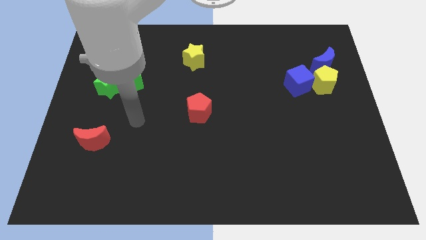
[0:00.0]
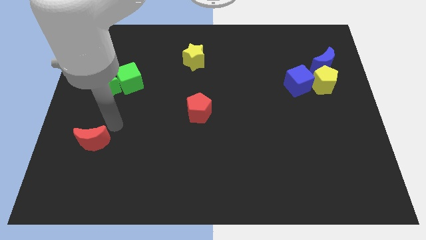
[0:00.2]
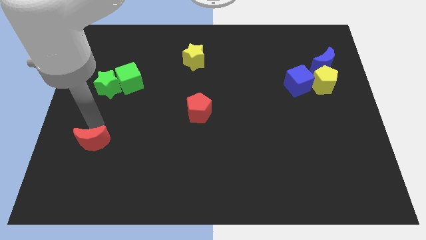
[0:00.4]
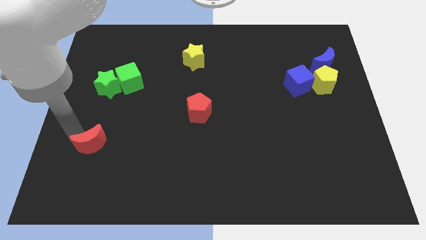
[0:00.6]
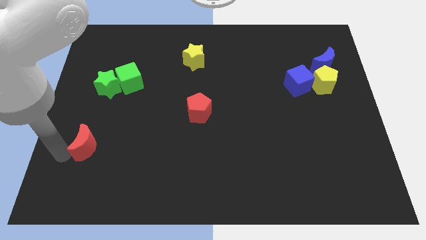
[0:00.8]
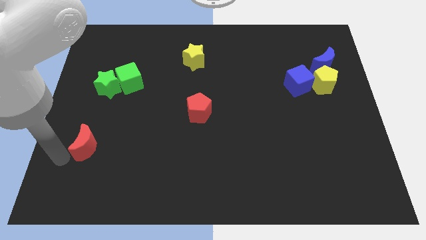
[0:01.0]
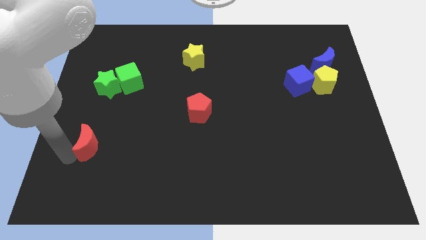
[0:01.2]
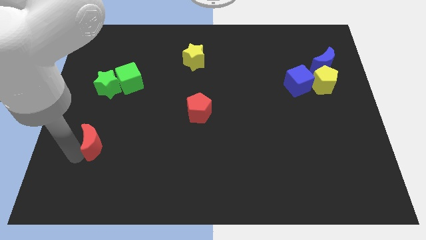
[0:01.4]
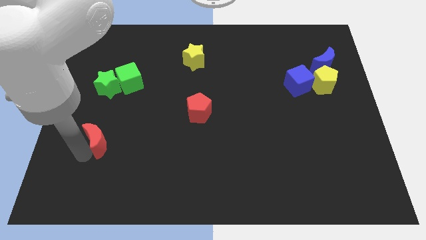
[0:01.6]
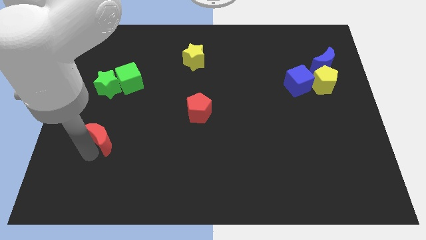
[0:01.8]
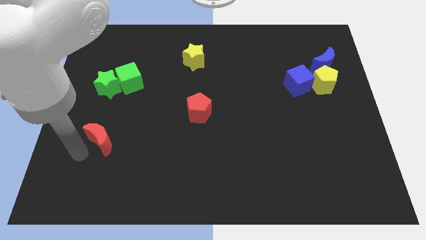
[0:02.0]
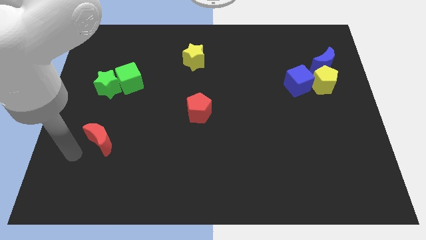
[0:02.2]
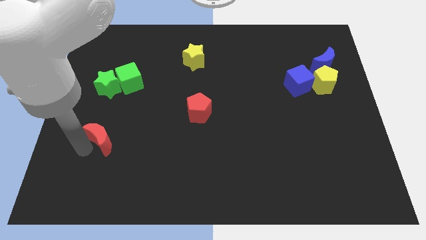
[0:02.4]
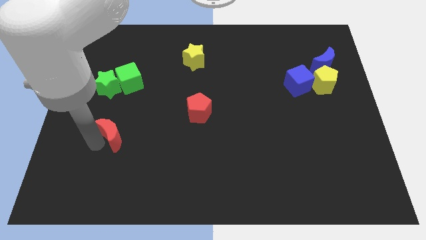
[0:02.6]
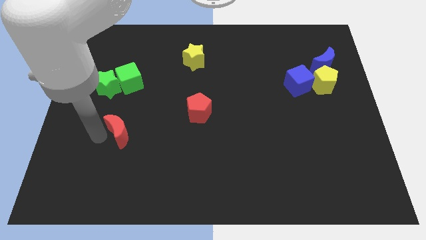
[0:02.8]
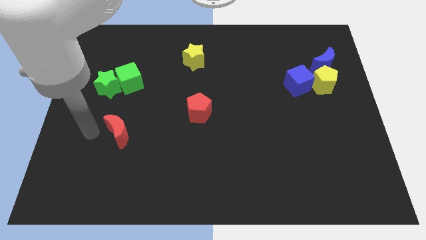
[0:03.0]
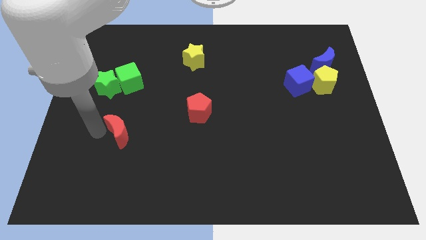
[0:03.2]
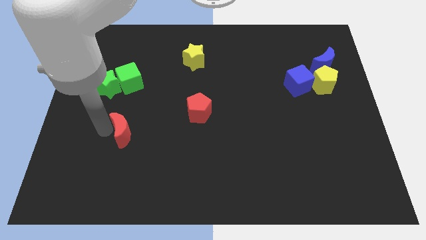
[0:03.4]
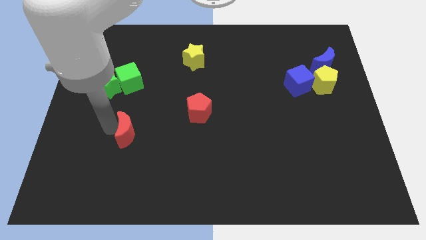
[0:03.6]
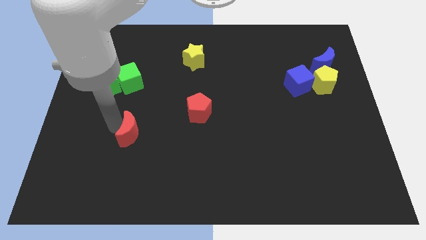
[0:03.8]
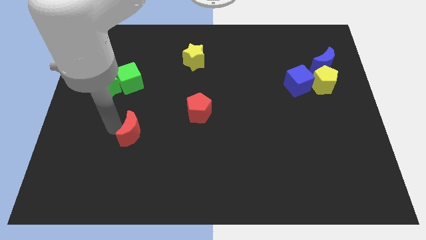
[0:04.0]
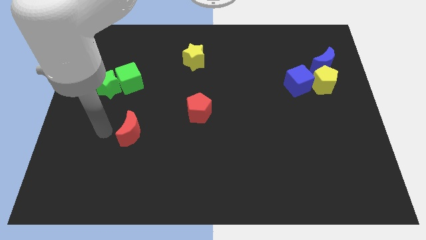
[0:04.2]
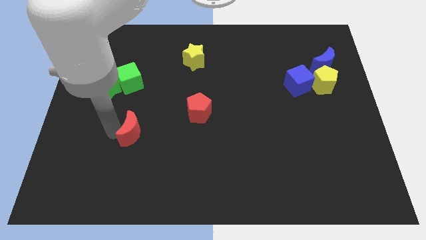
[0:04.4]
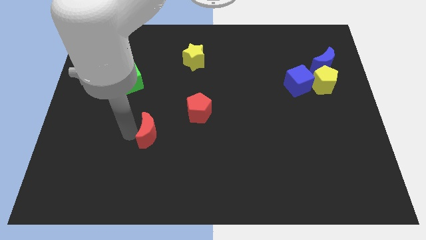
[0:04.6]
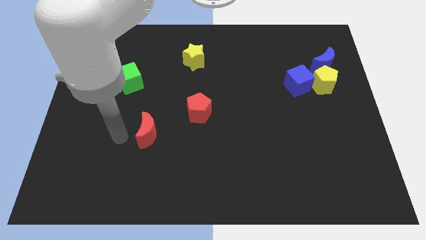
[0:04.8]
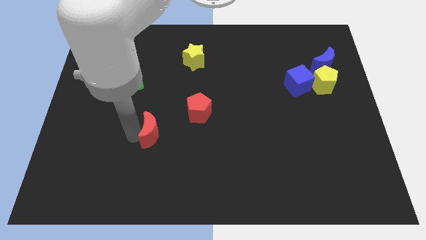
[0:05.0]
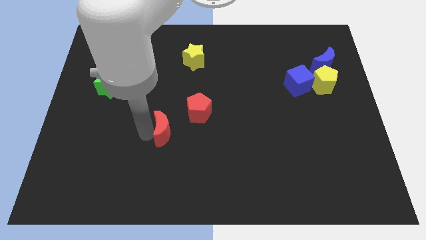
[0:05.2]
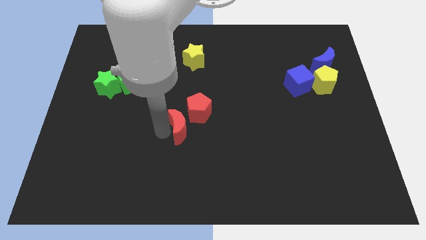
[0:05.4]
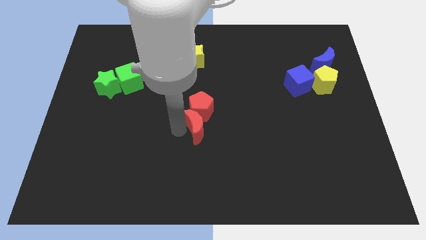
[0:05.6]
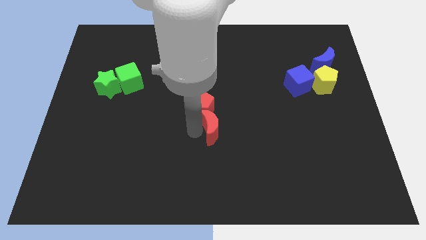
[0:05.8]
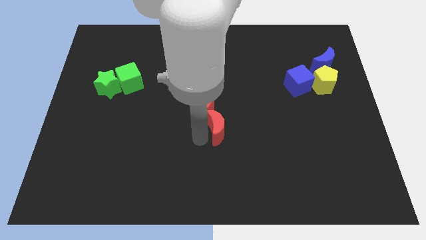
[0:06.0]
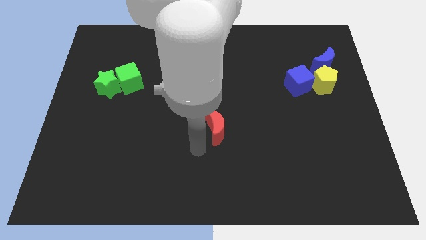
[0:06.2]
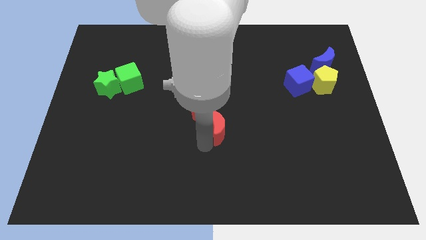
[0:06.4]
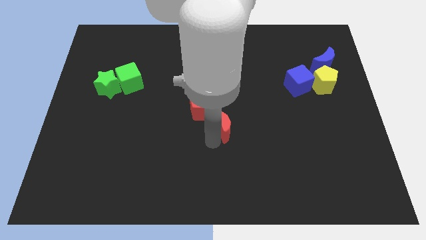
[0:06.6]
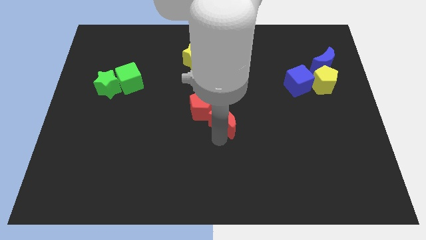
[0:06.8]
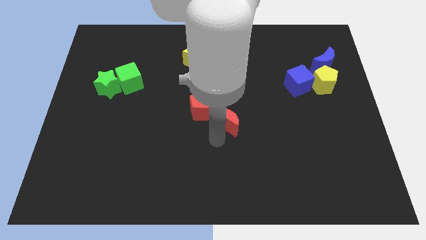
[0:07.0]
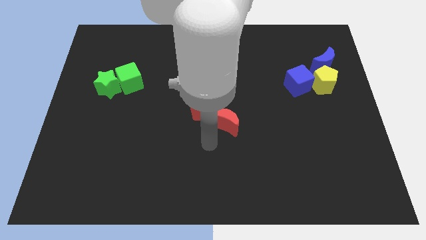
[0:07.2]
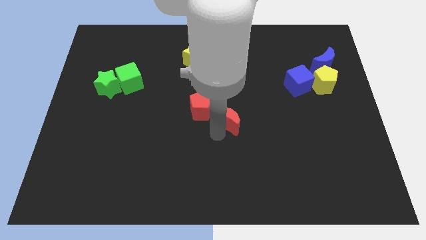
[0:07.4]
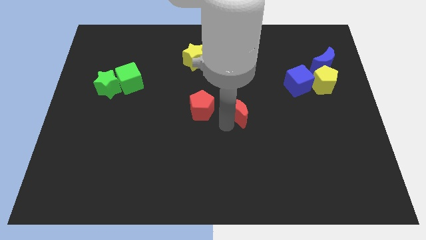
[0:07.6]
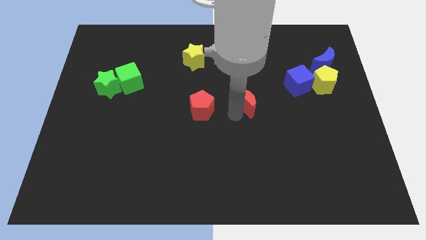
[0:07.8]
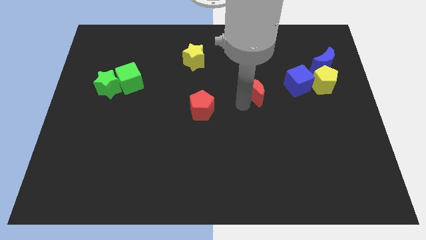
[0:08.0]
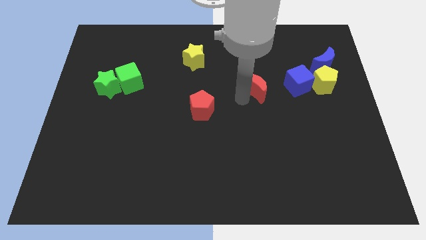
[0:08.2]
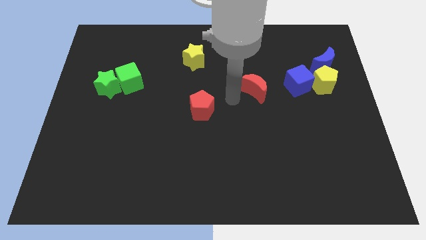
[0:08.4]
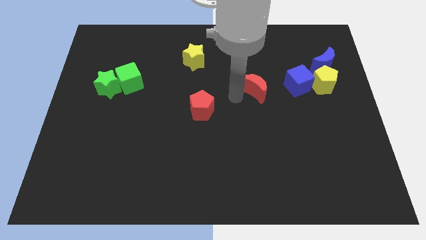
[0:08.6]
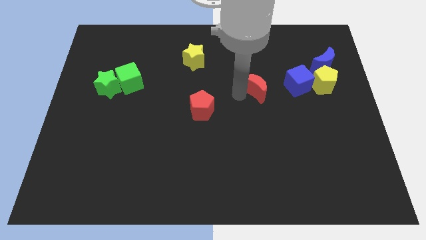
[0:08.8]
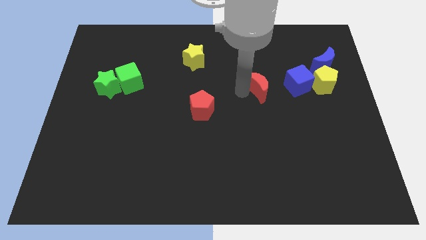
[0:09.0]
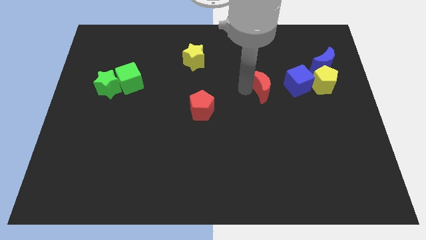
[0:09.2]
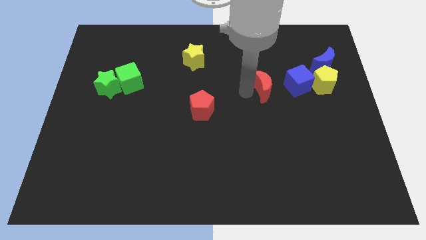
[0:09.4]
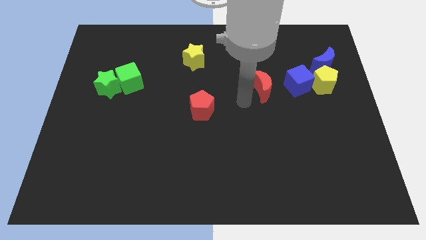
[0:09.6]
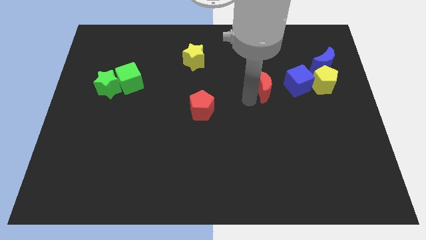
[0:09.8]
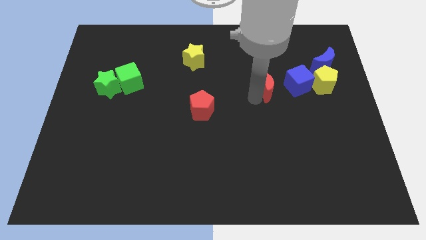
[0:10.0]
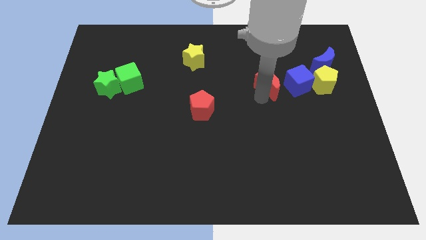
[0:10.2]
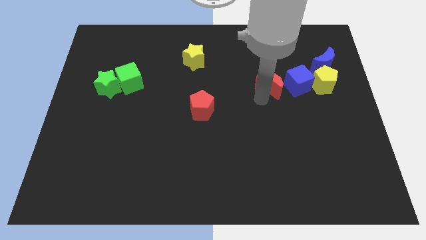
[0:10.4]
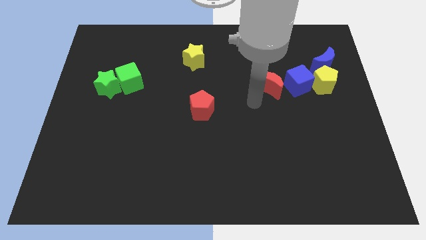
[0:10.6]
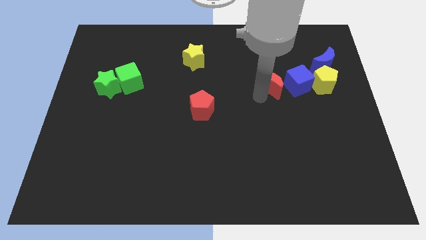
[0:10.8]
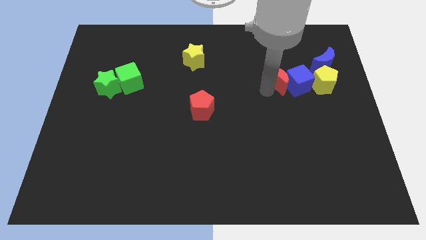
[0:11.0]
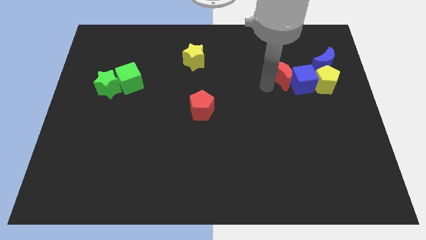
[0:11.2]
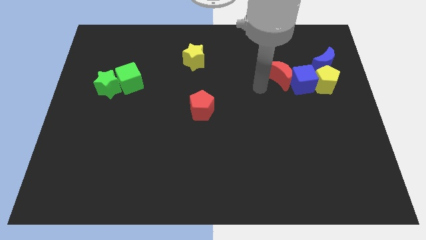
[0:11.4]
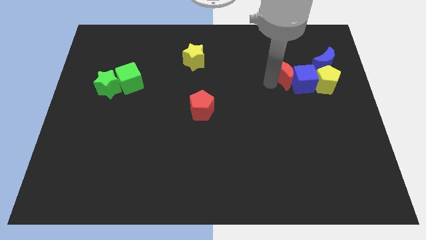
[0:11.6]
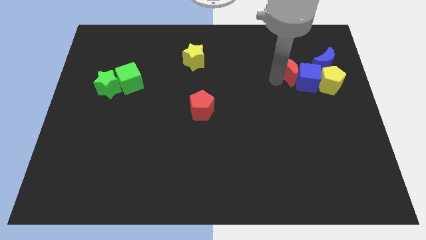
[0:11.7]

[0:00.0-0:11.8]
put the red moon diagonally up and to the left of the yellow pentagon

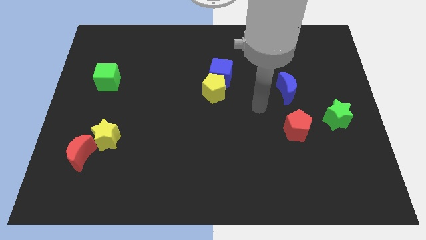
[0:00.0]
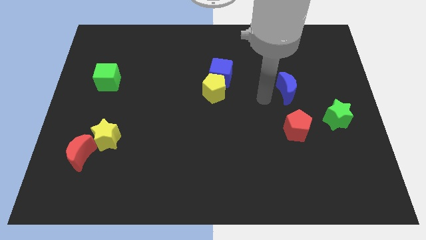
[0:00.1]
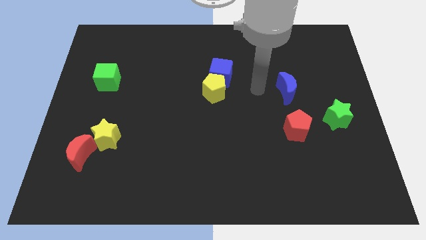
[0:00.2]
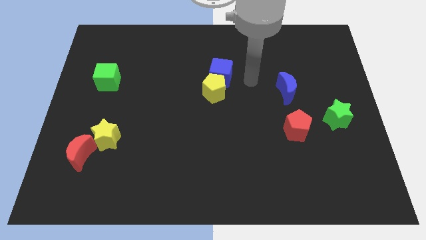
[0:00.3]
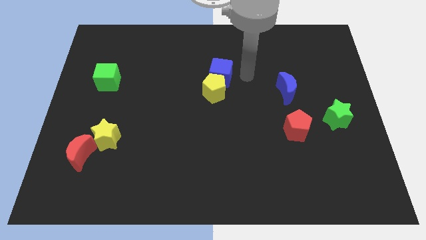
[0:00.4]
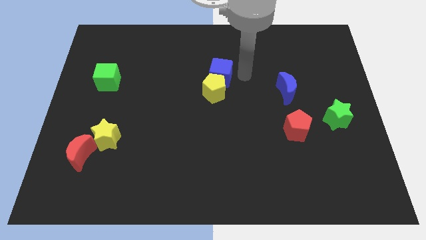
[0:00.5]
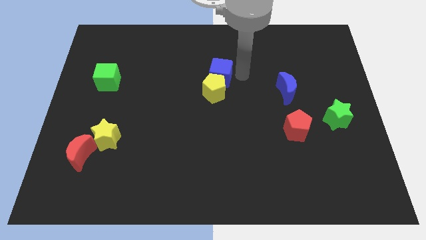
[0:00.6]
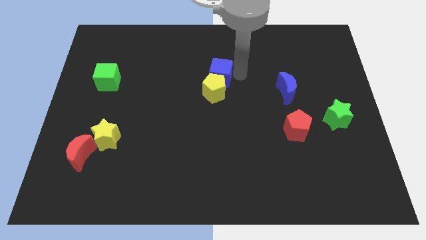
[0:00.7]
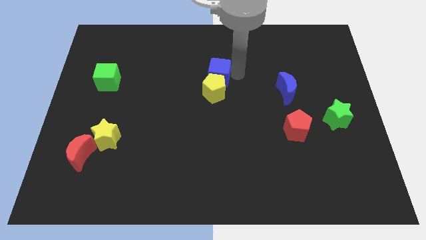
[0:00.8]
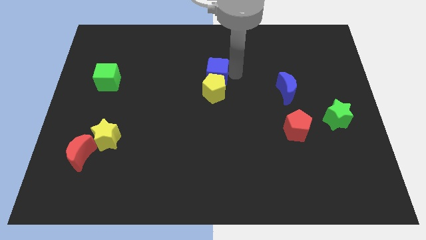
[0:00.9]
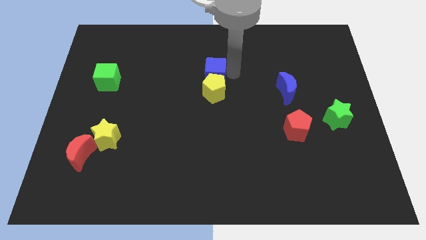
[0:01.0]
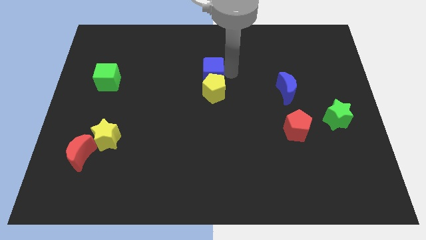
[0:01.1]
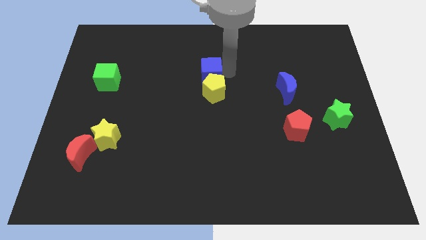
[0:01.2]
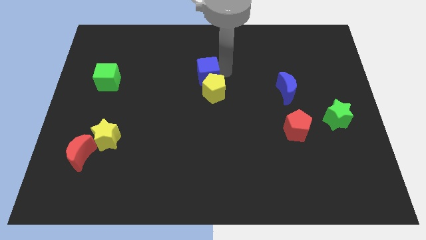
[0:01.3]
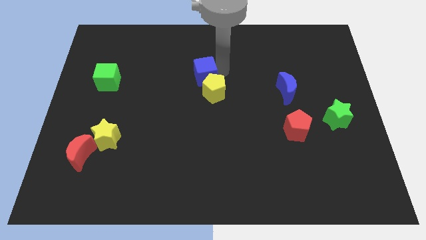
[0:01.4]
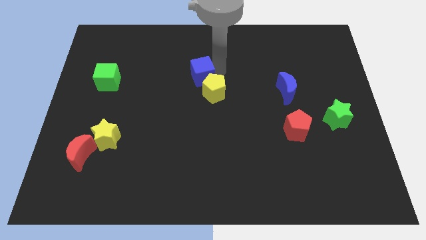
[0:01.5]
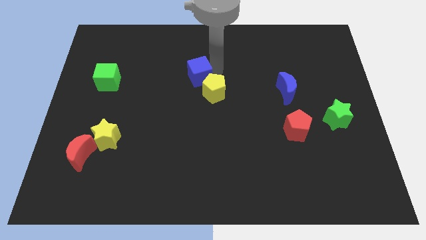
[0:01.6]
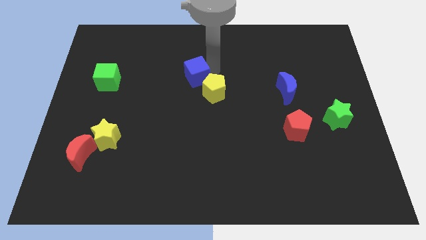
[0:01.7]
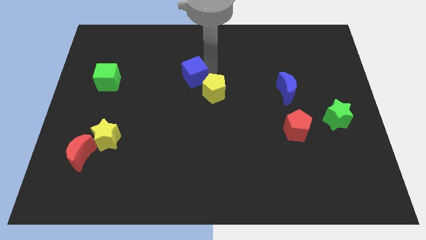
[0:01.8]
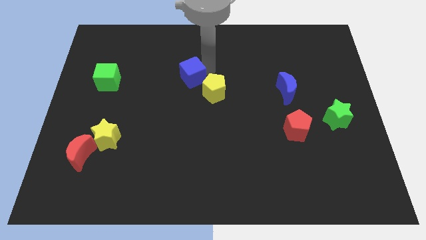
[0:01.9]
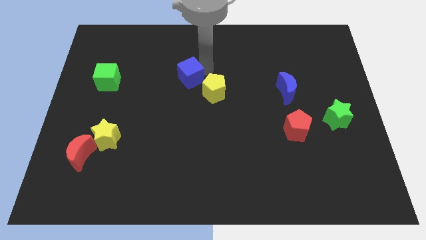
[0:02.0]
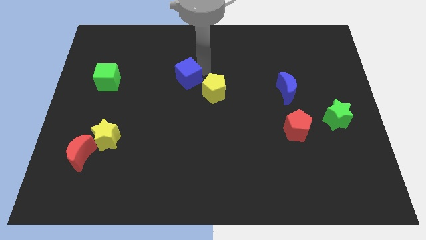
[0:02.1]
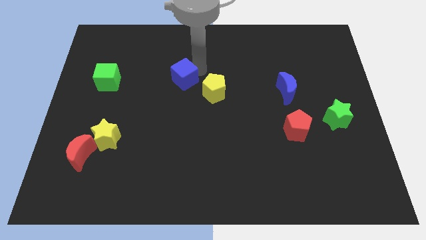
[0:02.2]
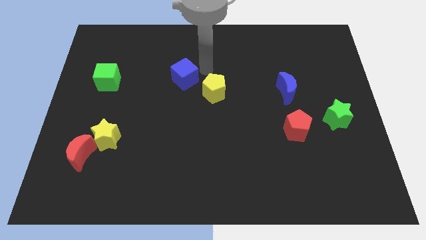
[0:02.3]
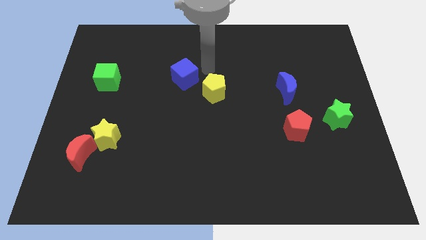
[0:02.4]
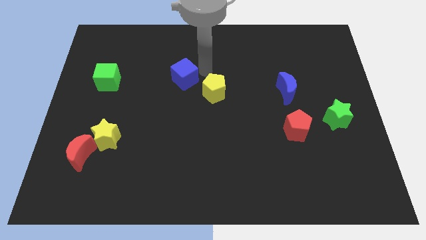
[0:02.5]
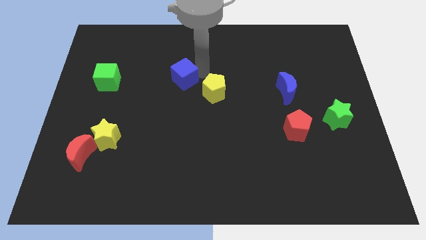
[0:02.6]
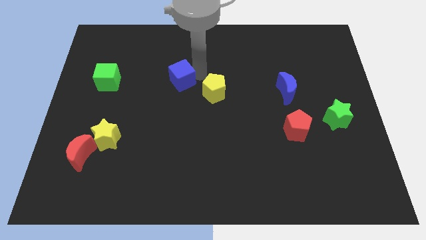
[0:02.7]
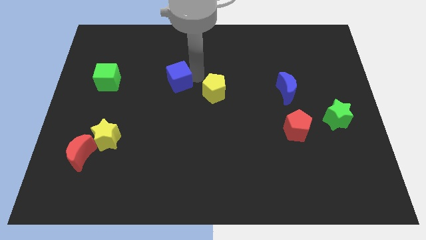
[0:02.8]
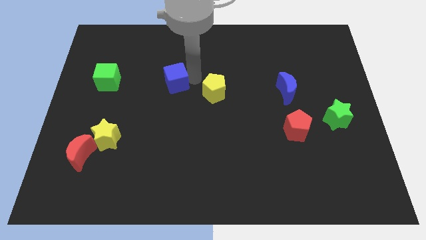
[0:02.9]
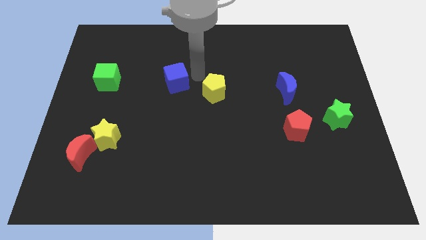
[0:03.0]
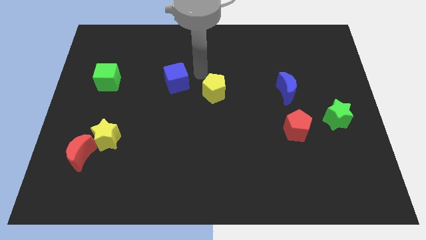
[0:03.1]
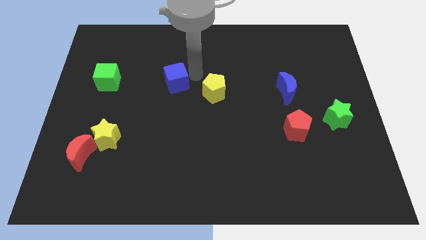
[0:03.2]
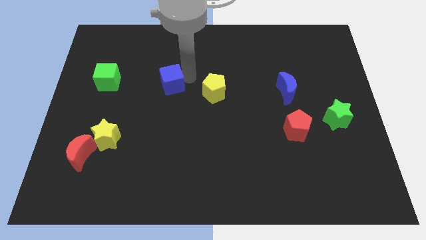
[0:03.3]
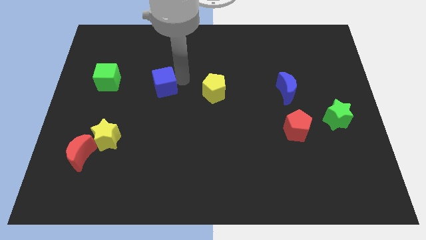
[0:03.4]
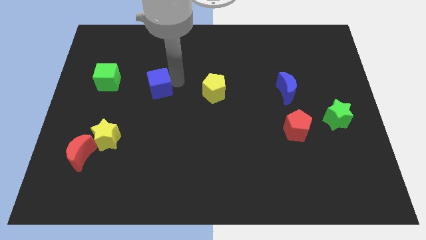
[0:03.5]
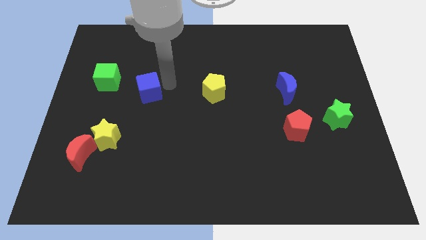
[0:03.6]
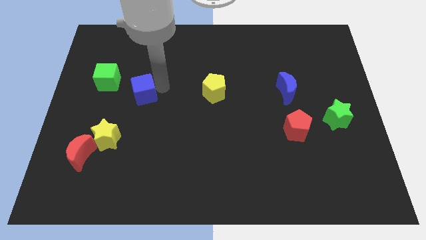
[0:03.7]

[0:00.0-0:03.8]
move the blue cube to the bottom right of the green cube
